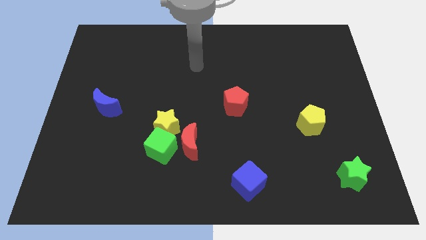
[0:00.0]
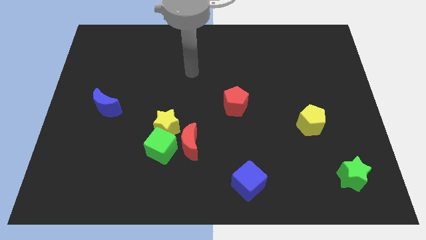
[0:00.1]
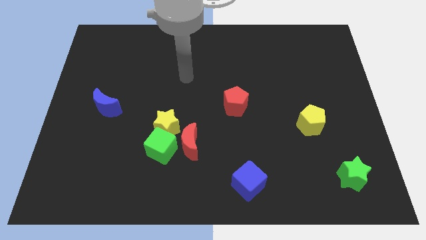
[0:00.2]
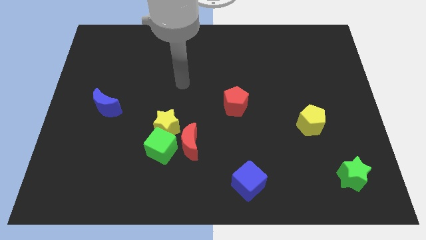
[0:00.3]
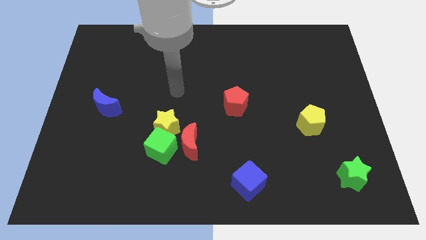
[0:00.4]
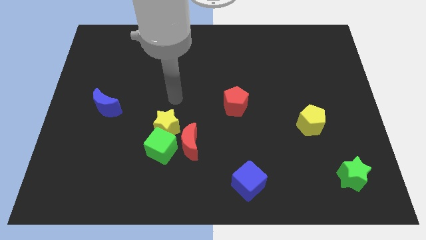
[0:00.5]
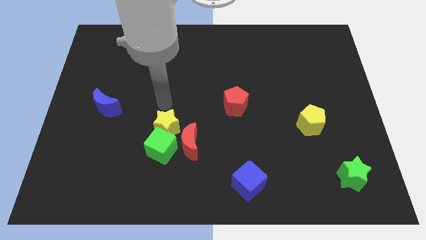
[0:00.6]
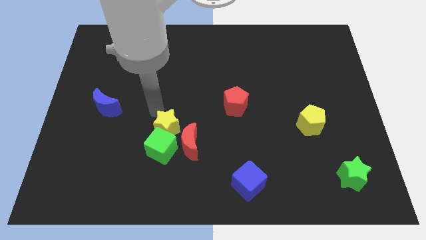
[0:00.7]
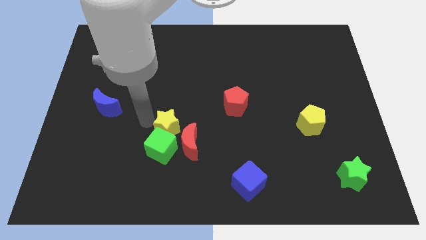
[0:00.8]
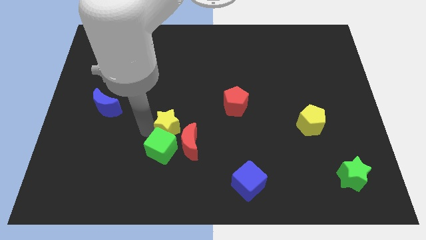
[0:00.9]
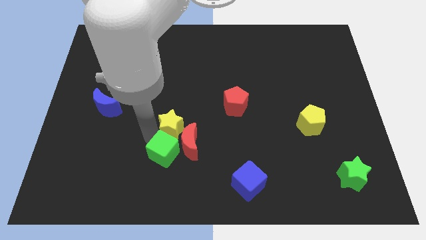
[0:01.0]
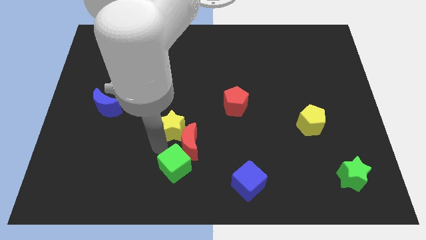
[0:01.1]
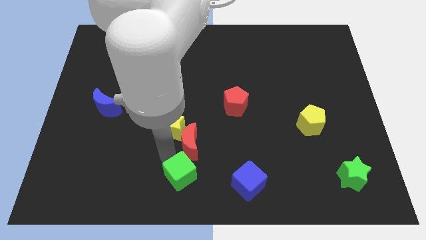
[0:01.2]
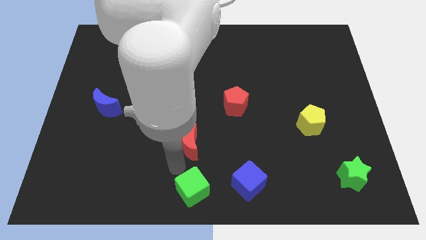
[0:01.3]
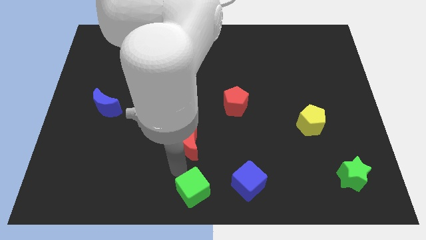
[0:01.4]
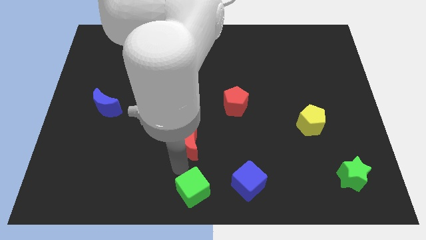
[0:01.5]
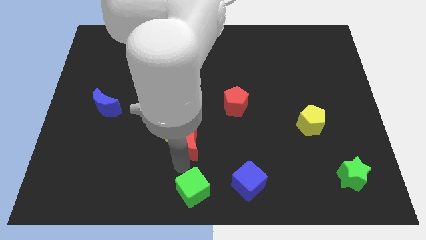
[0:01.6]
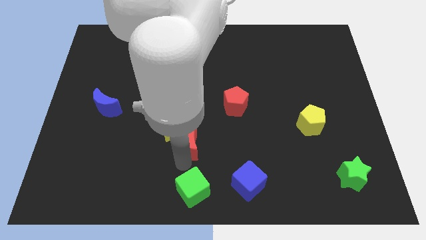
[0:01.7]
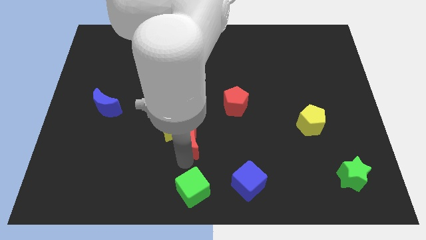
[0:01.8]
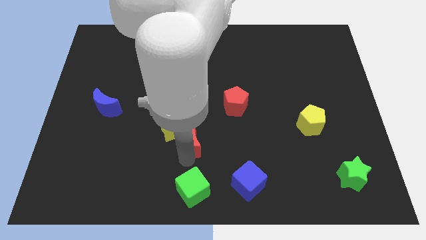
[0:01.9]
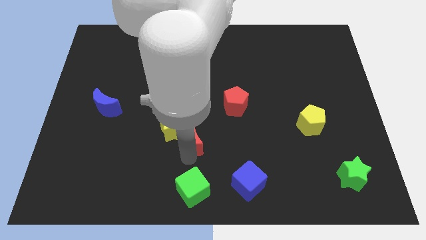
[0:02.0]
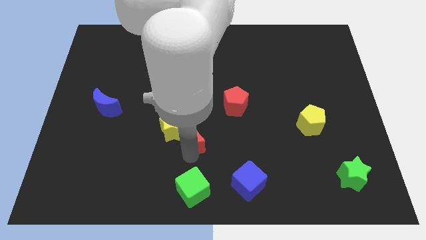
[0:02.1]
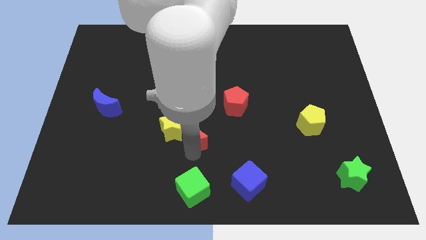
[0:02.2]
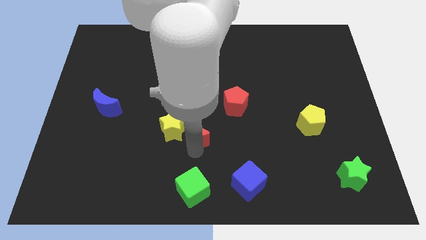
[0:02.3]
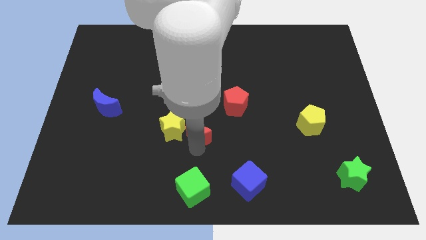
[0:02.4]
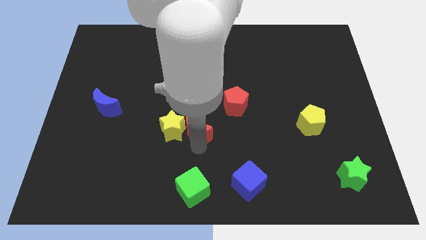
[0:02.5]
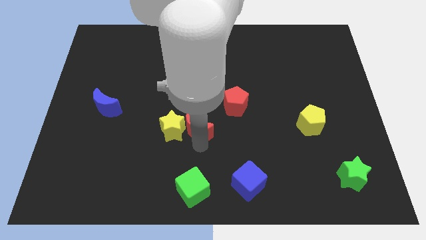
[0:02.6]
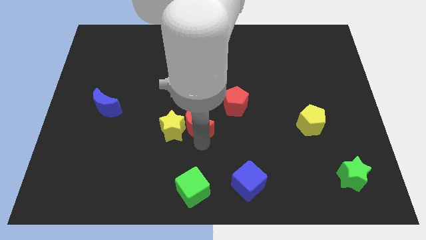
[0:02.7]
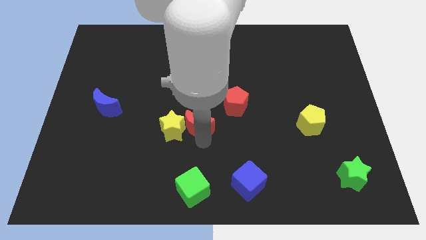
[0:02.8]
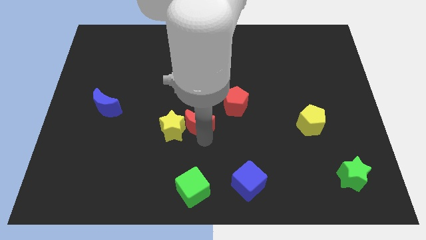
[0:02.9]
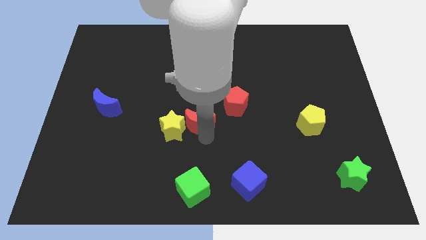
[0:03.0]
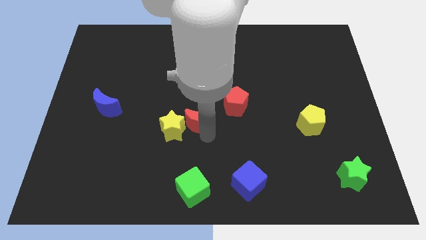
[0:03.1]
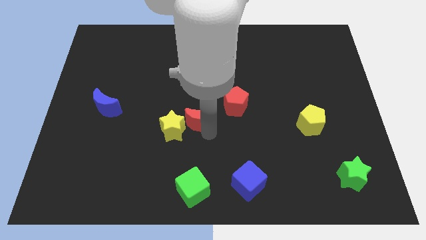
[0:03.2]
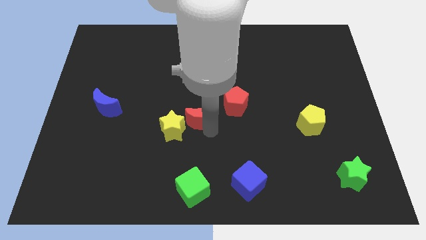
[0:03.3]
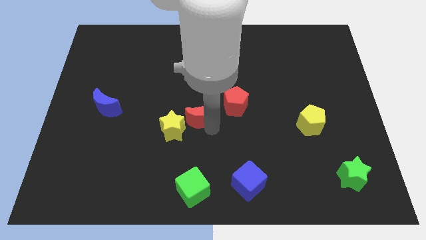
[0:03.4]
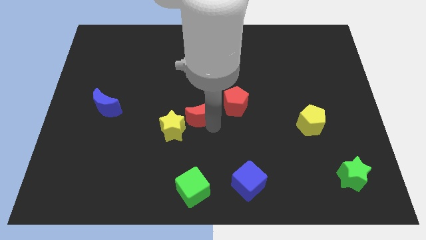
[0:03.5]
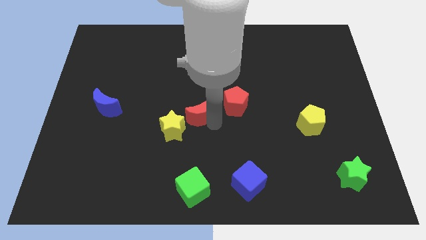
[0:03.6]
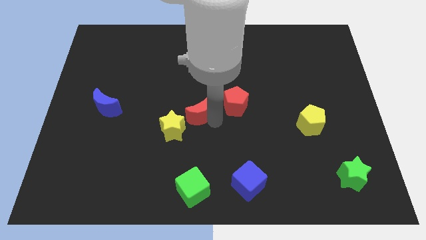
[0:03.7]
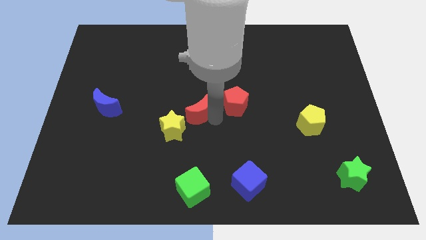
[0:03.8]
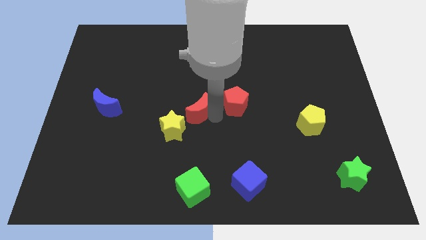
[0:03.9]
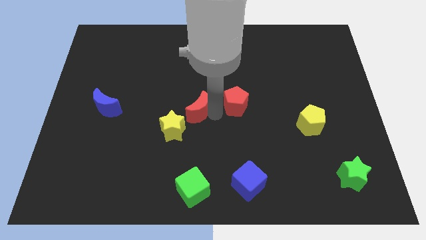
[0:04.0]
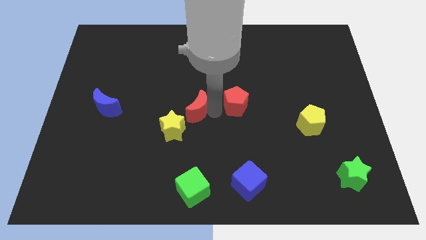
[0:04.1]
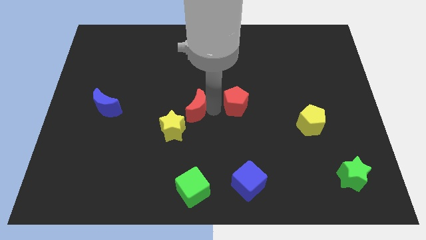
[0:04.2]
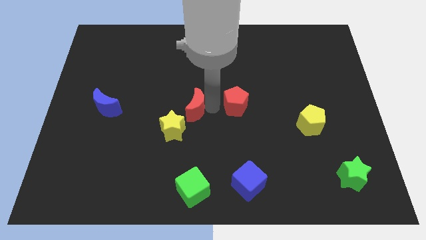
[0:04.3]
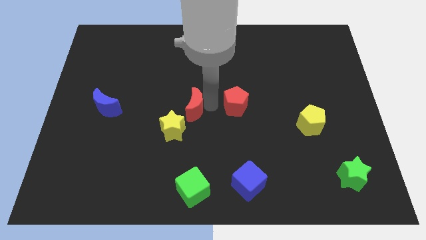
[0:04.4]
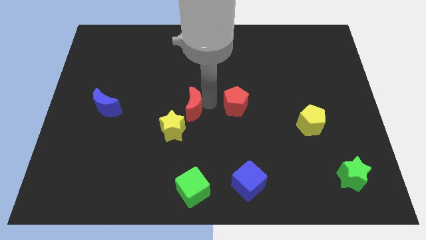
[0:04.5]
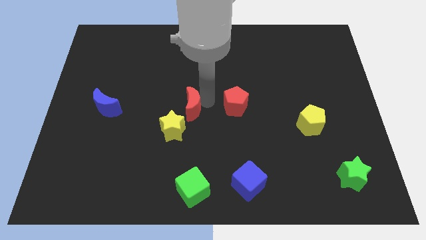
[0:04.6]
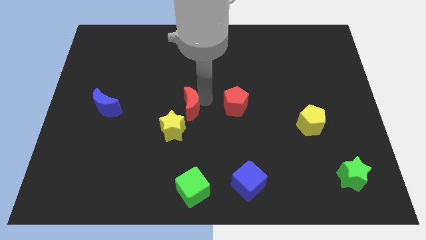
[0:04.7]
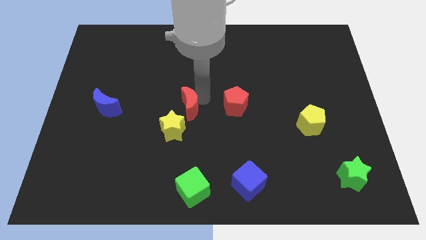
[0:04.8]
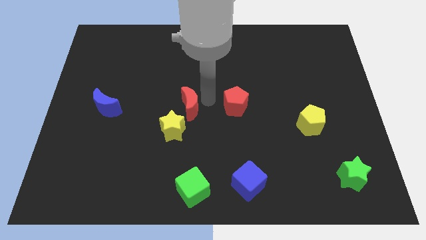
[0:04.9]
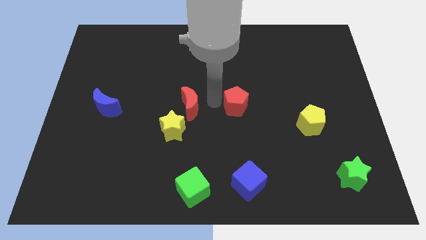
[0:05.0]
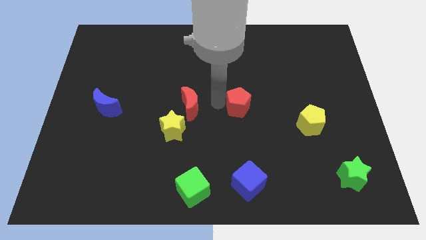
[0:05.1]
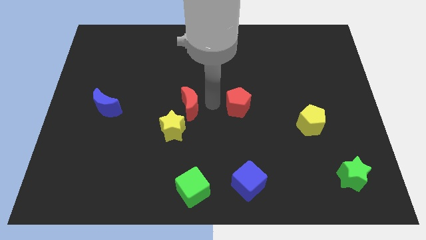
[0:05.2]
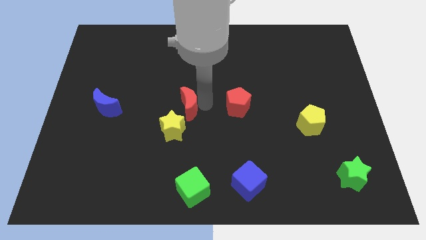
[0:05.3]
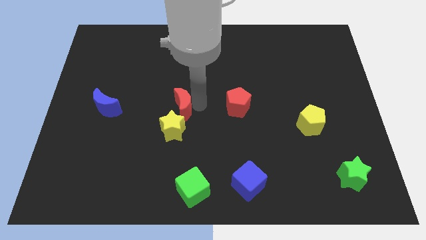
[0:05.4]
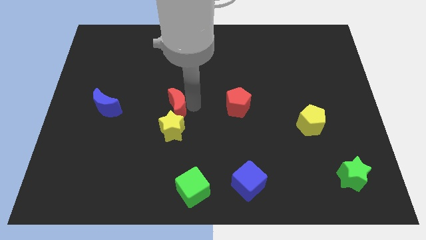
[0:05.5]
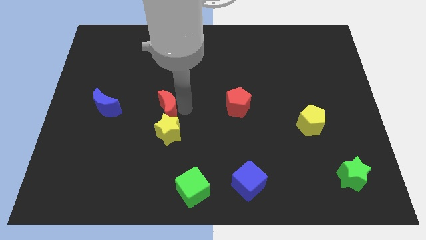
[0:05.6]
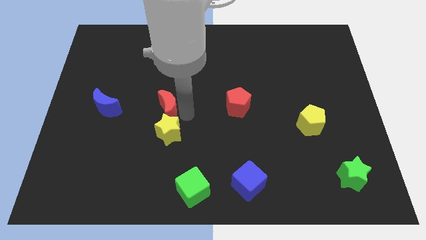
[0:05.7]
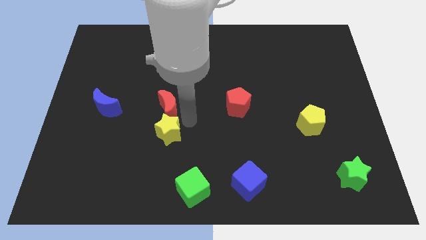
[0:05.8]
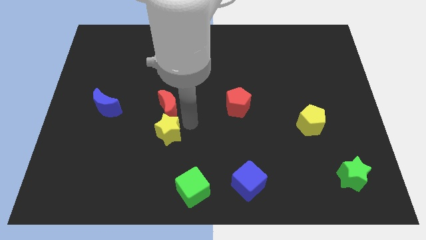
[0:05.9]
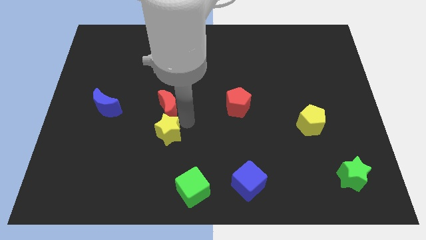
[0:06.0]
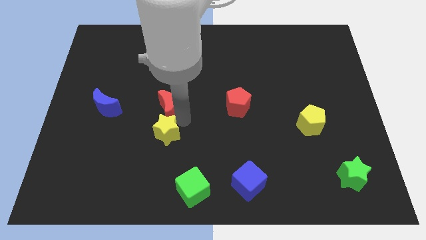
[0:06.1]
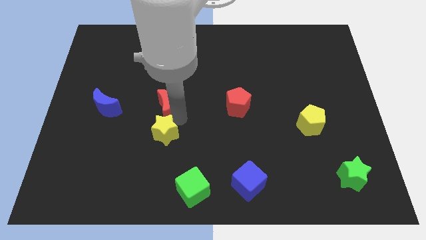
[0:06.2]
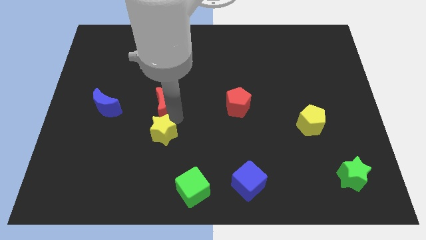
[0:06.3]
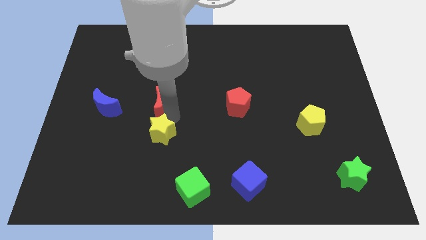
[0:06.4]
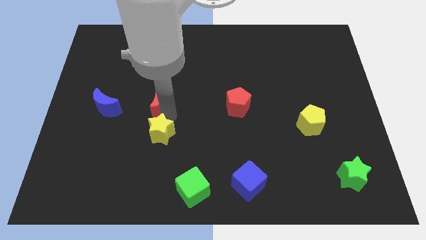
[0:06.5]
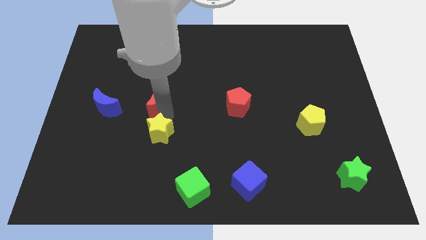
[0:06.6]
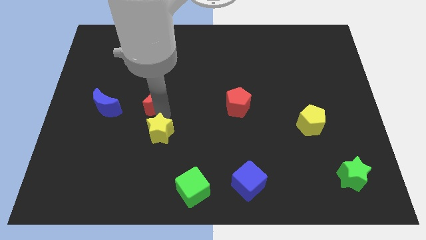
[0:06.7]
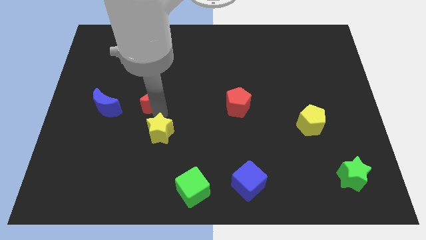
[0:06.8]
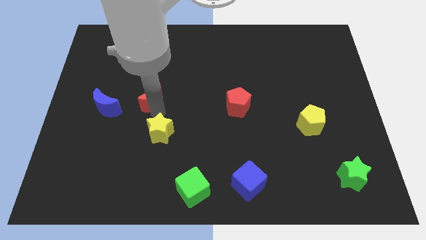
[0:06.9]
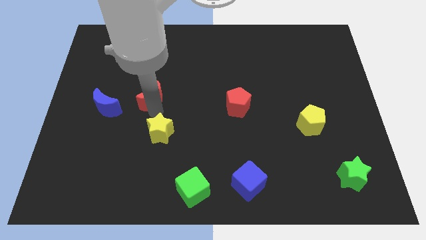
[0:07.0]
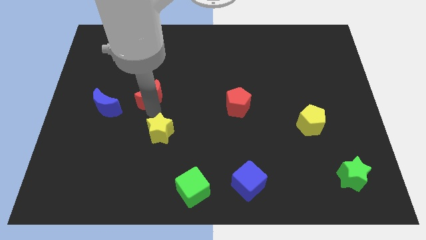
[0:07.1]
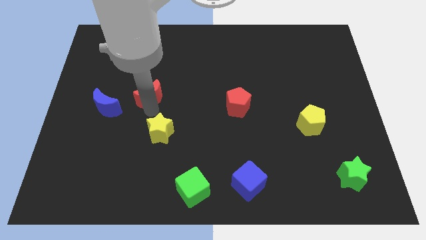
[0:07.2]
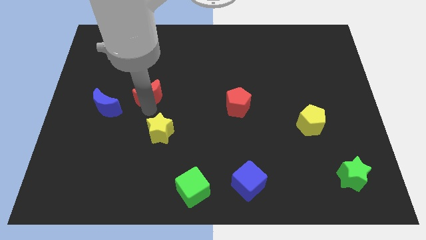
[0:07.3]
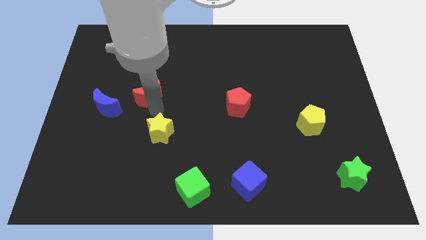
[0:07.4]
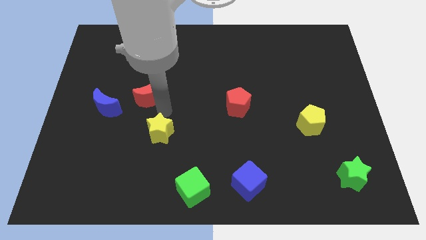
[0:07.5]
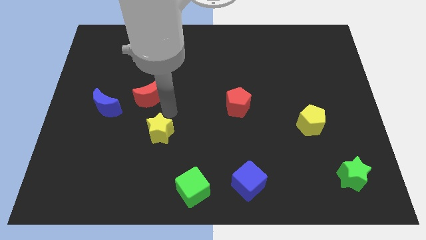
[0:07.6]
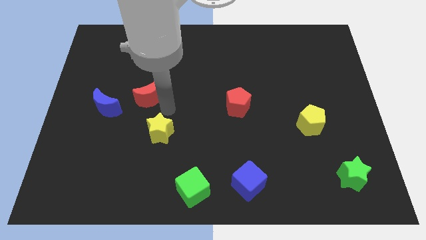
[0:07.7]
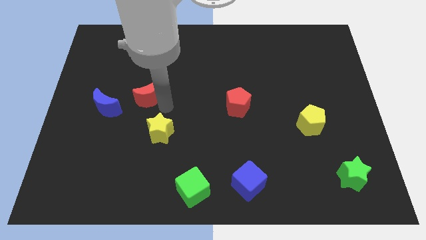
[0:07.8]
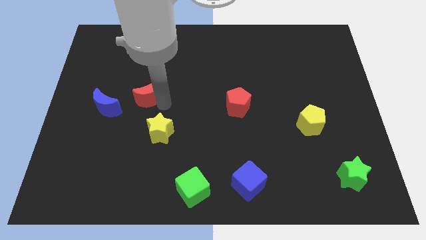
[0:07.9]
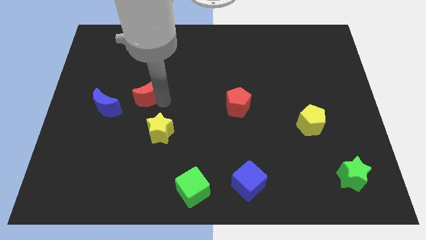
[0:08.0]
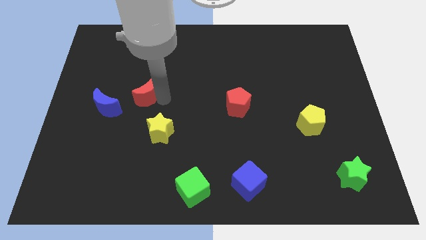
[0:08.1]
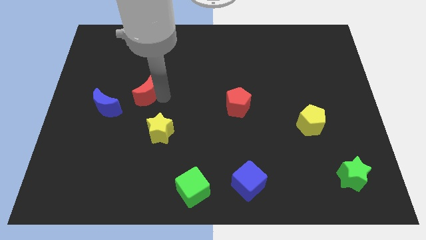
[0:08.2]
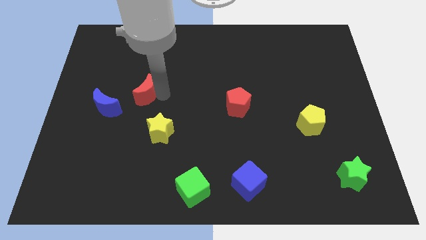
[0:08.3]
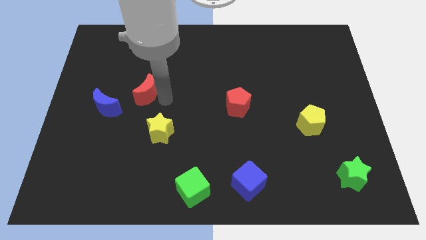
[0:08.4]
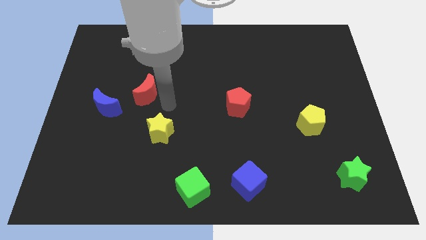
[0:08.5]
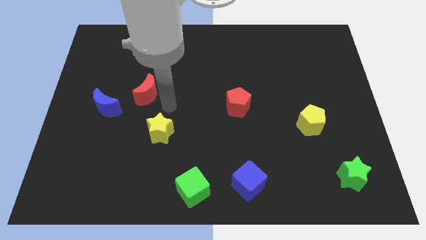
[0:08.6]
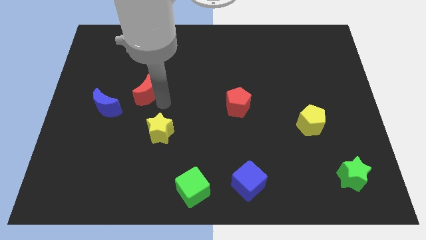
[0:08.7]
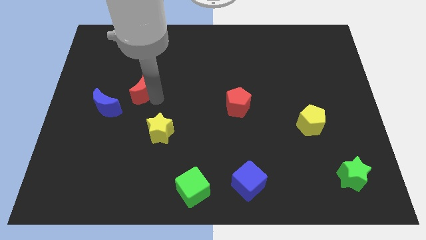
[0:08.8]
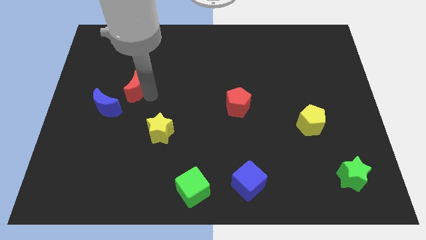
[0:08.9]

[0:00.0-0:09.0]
move the red moon upwards and then left
